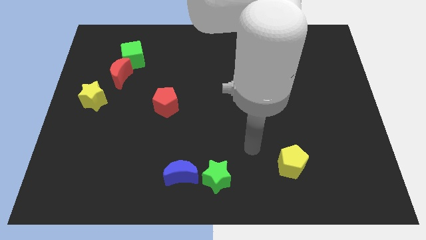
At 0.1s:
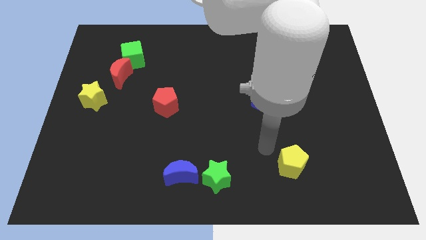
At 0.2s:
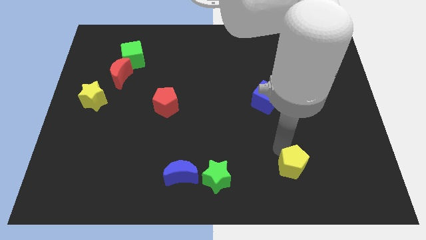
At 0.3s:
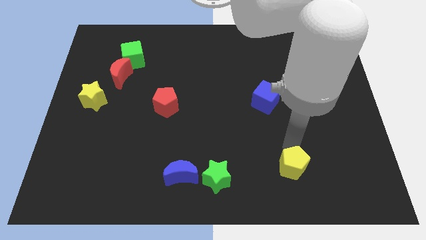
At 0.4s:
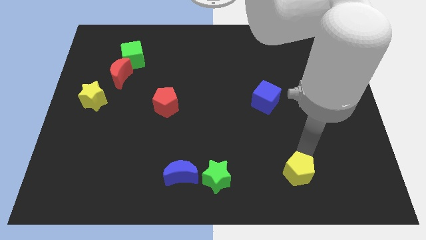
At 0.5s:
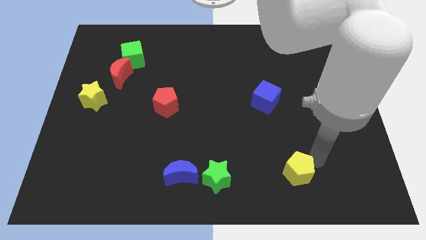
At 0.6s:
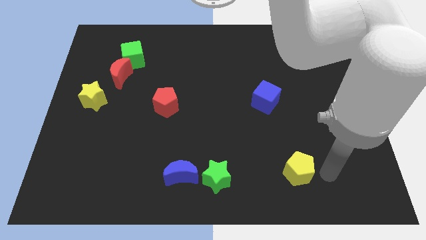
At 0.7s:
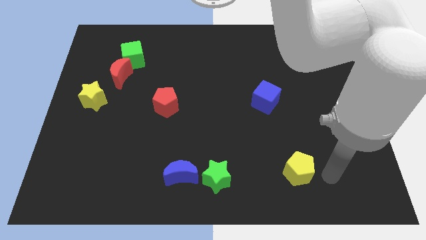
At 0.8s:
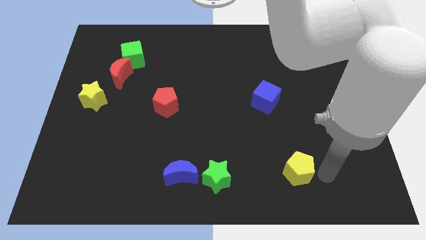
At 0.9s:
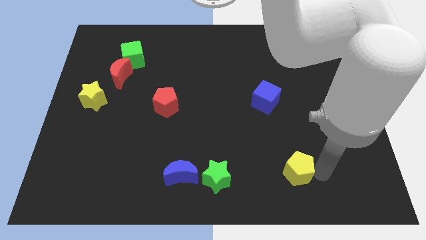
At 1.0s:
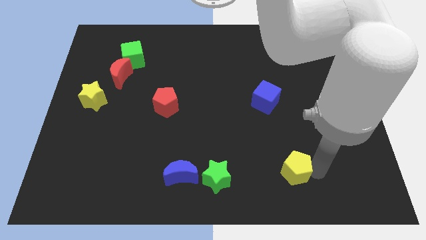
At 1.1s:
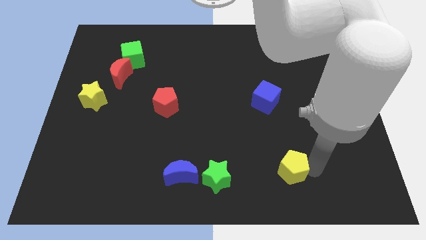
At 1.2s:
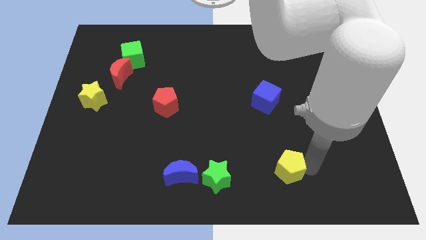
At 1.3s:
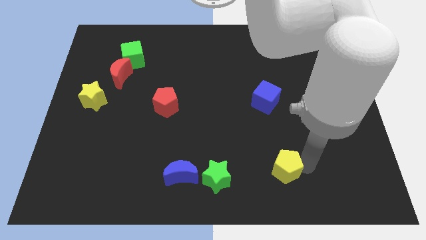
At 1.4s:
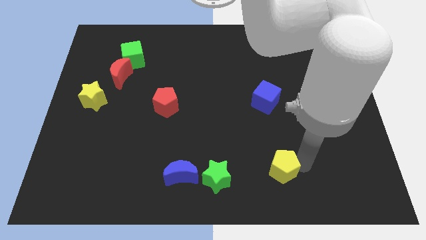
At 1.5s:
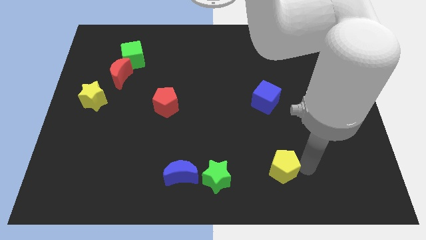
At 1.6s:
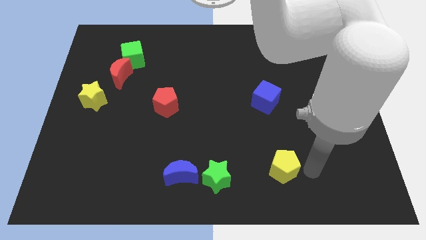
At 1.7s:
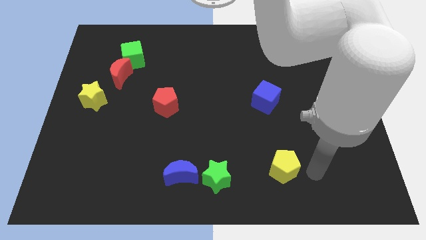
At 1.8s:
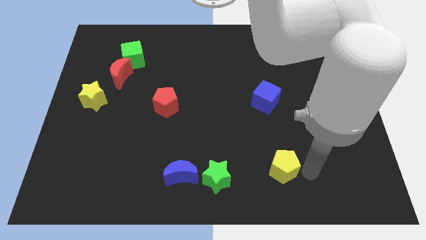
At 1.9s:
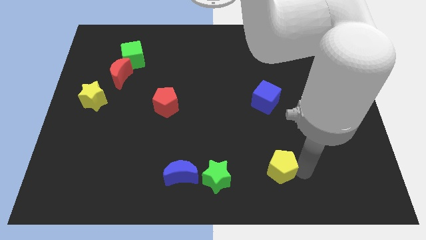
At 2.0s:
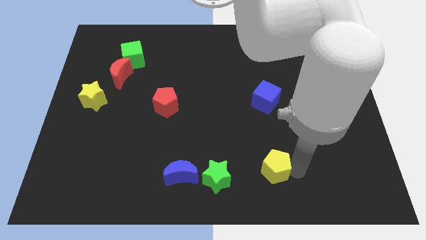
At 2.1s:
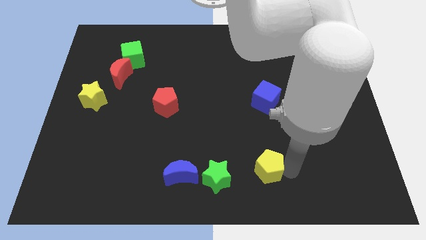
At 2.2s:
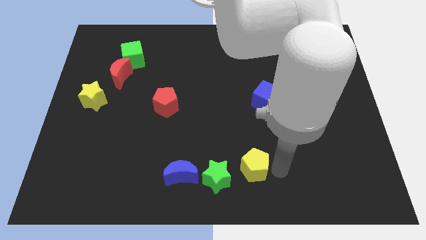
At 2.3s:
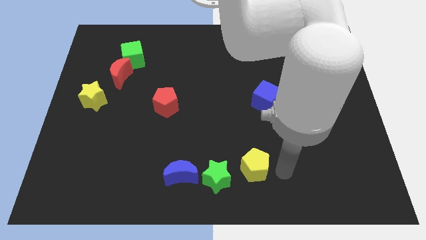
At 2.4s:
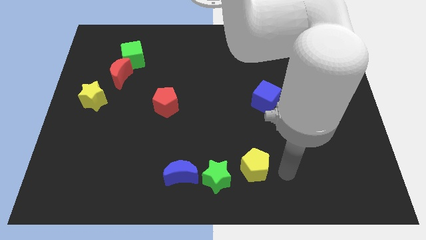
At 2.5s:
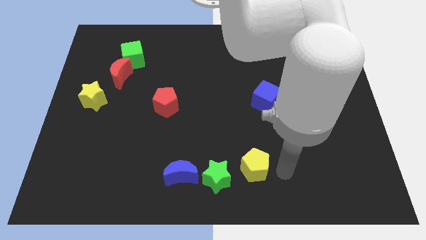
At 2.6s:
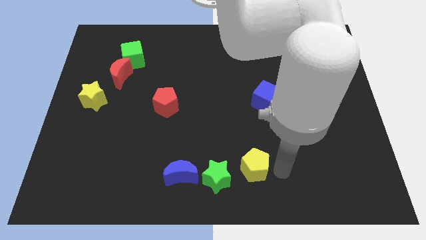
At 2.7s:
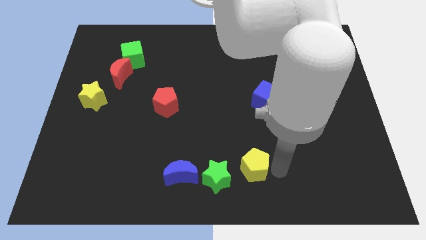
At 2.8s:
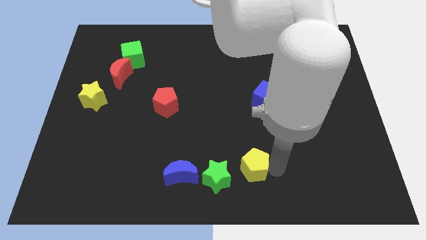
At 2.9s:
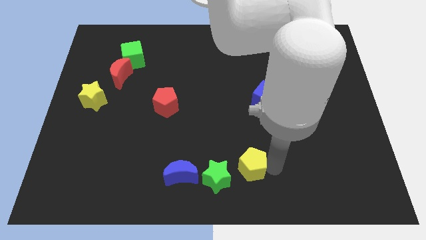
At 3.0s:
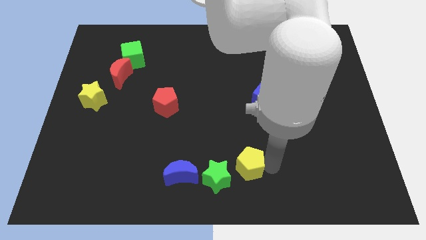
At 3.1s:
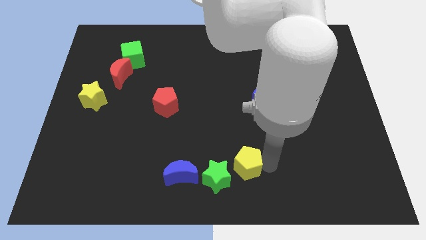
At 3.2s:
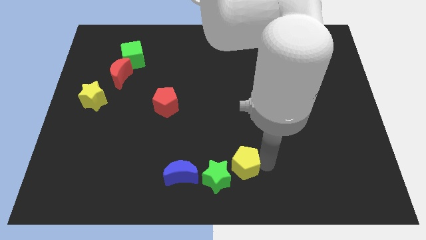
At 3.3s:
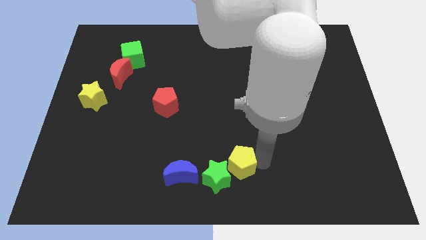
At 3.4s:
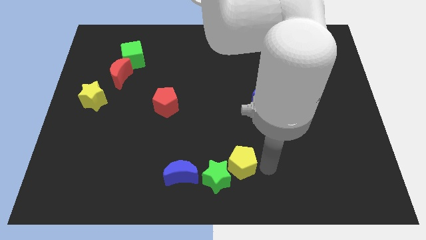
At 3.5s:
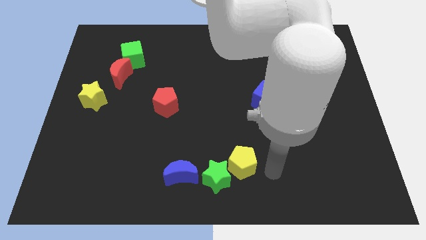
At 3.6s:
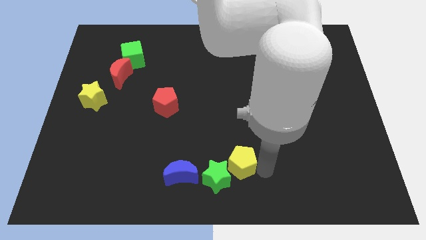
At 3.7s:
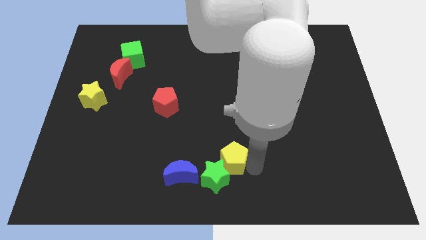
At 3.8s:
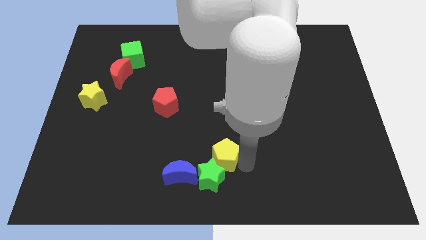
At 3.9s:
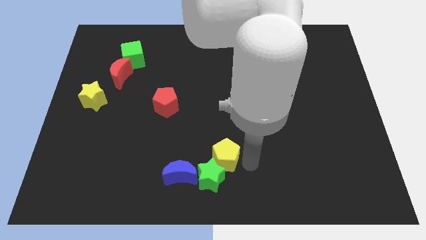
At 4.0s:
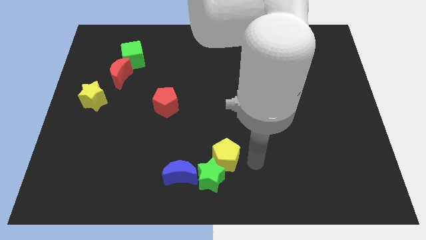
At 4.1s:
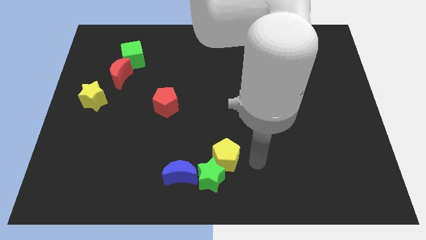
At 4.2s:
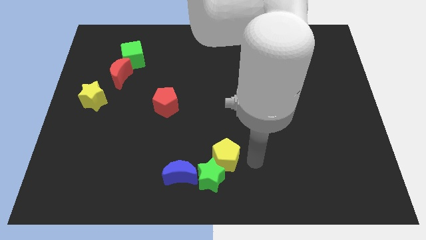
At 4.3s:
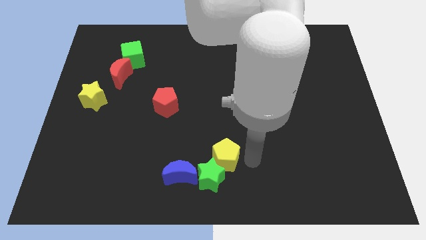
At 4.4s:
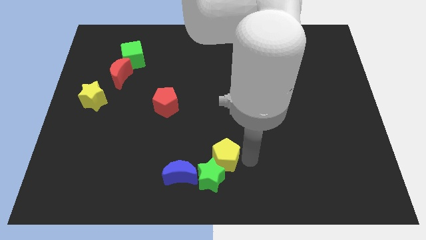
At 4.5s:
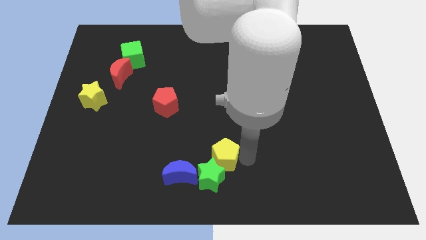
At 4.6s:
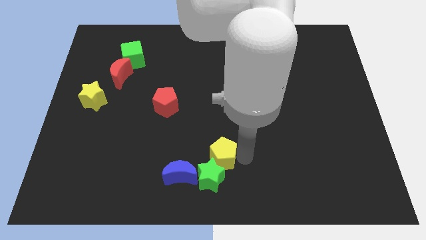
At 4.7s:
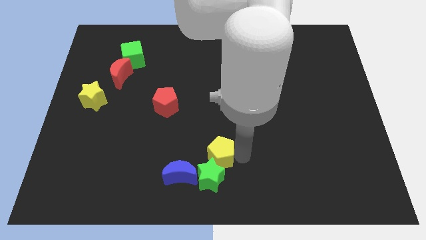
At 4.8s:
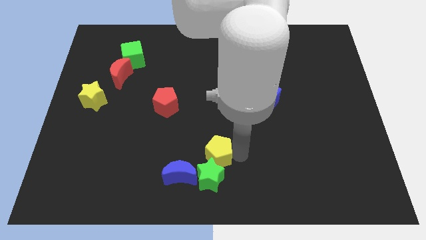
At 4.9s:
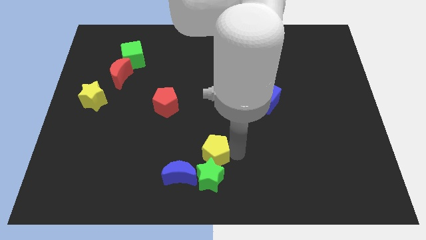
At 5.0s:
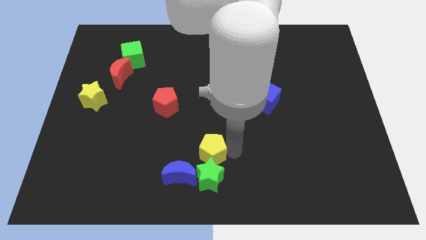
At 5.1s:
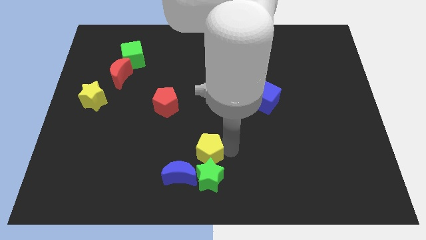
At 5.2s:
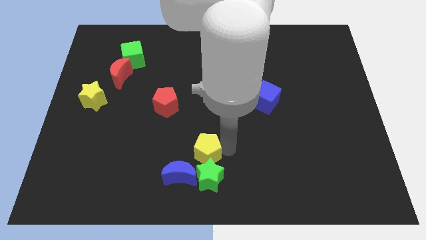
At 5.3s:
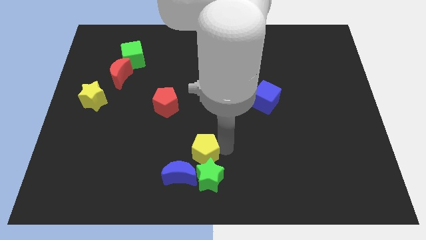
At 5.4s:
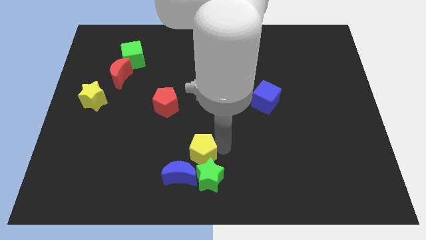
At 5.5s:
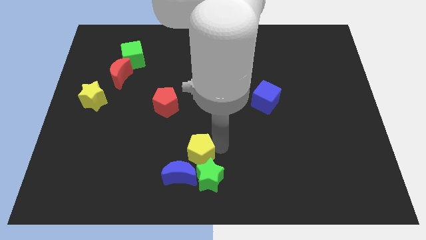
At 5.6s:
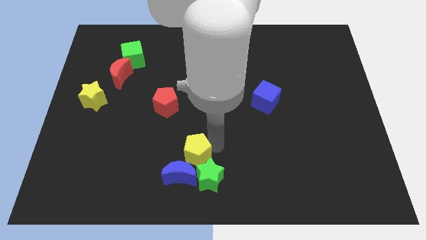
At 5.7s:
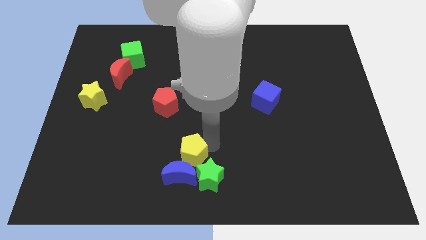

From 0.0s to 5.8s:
slide the yellow pentagon to the left

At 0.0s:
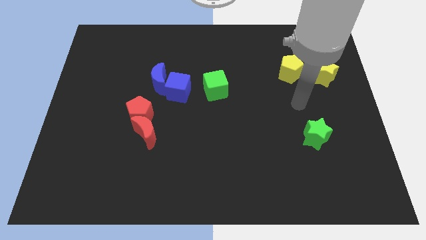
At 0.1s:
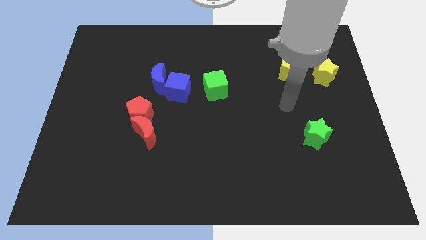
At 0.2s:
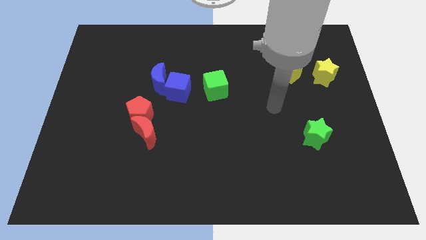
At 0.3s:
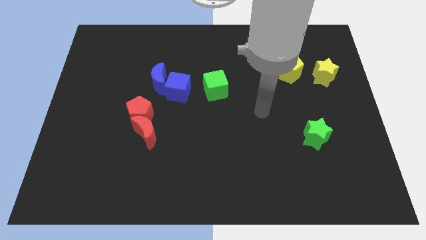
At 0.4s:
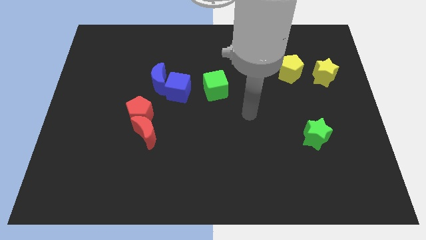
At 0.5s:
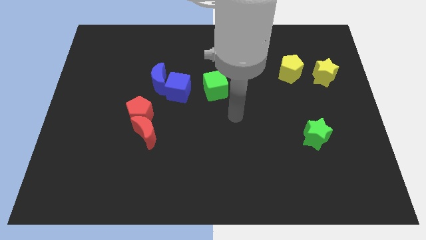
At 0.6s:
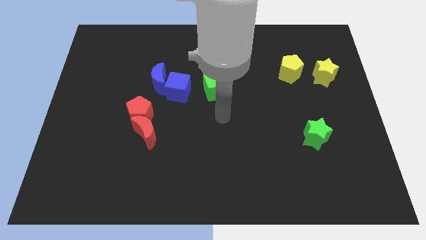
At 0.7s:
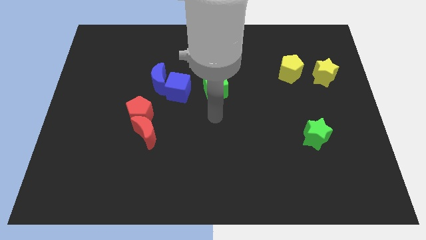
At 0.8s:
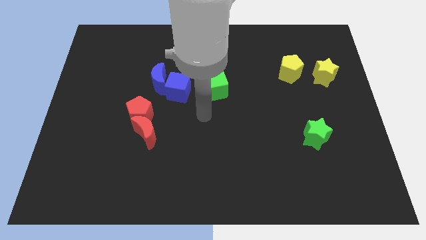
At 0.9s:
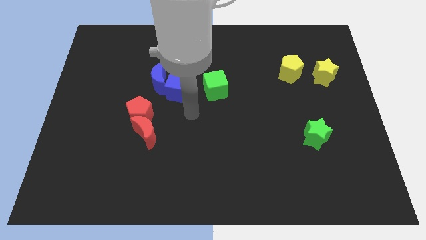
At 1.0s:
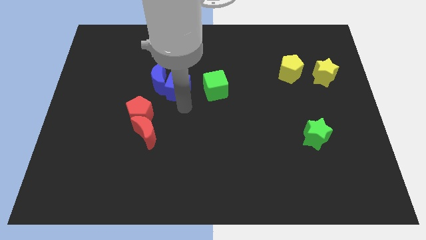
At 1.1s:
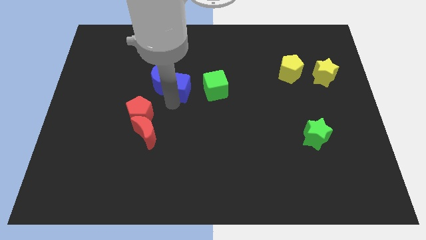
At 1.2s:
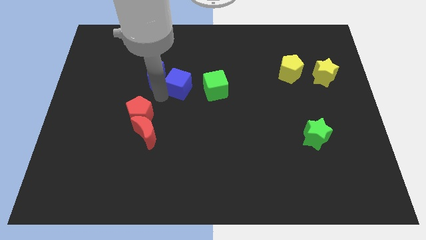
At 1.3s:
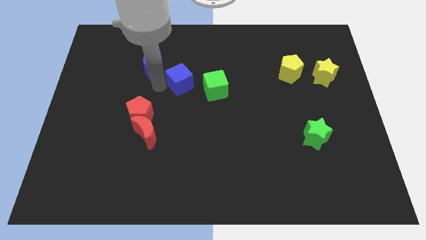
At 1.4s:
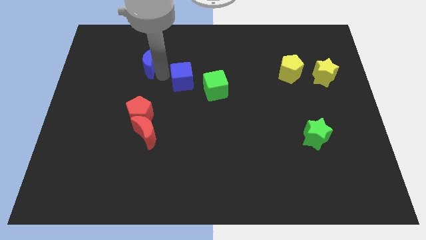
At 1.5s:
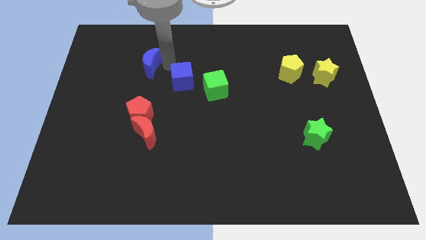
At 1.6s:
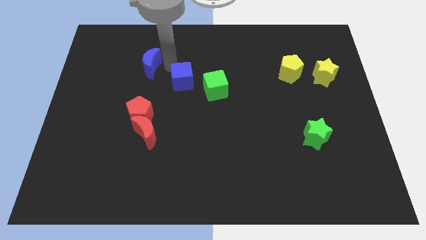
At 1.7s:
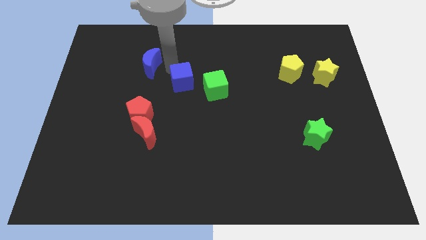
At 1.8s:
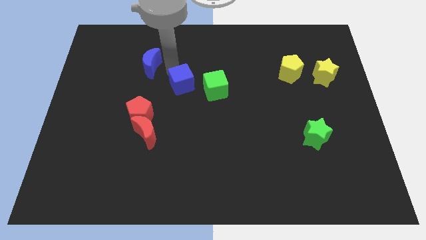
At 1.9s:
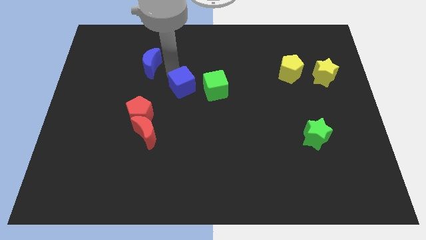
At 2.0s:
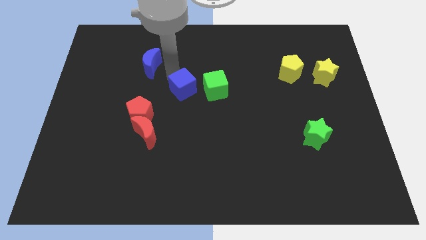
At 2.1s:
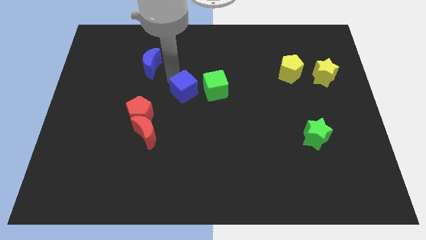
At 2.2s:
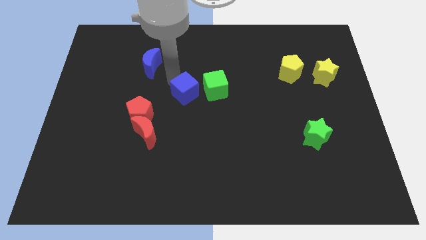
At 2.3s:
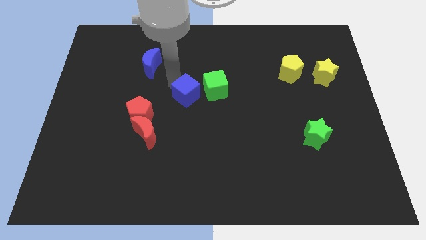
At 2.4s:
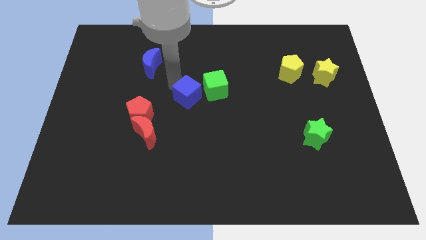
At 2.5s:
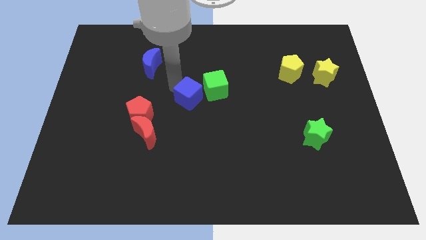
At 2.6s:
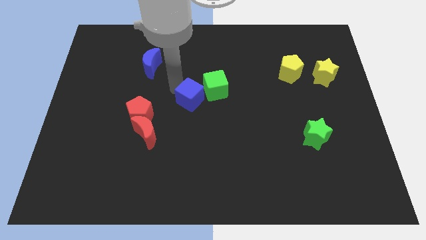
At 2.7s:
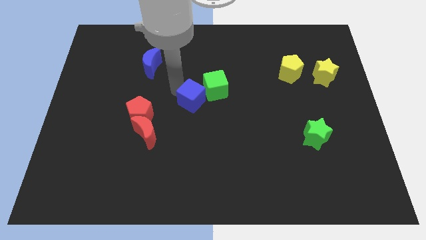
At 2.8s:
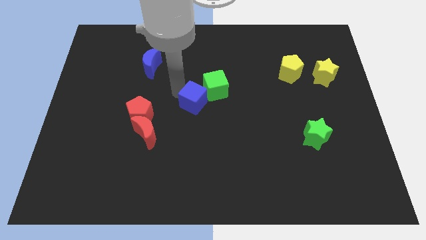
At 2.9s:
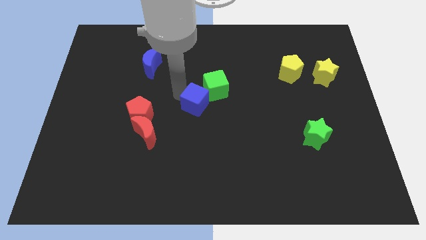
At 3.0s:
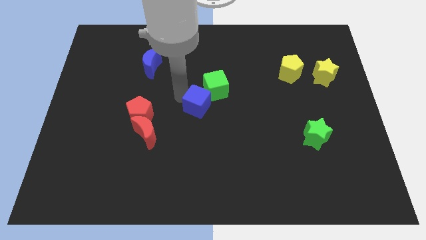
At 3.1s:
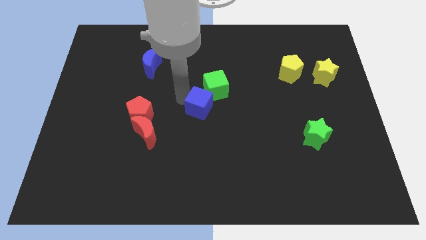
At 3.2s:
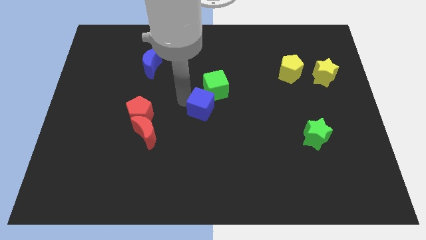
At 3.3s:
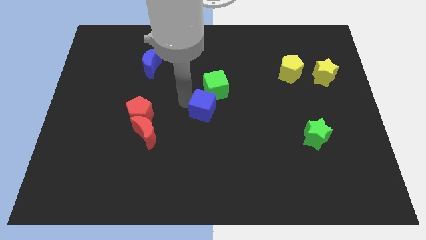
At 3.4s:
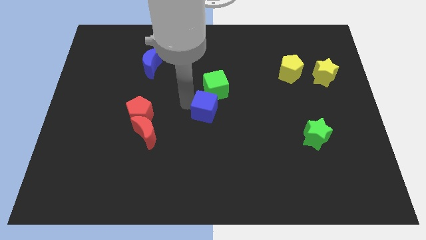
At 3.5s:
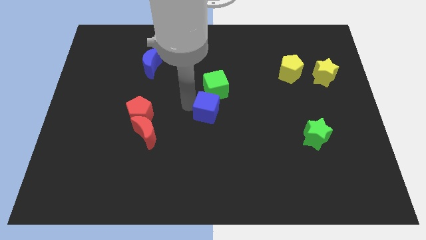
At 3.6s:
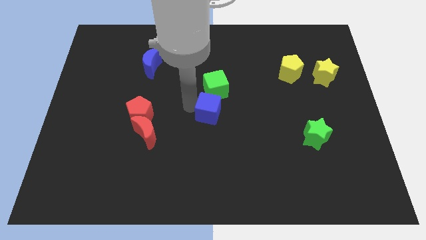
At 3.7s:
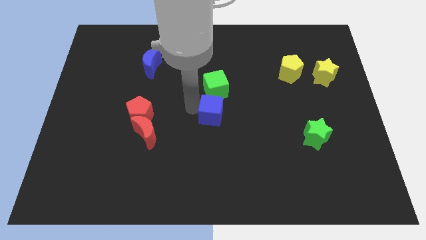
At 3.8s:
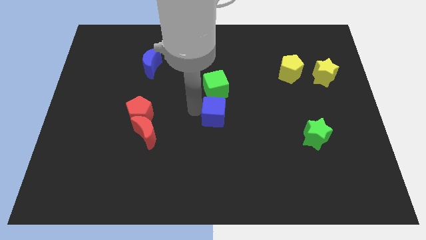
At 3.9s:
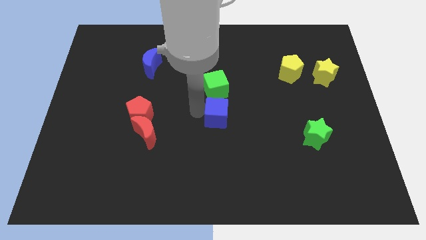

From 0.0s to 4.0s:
slide the blue cube slightly right
